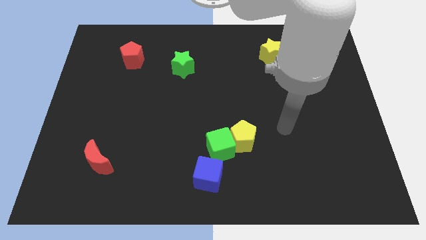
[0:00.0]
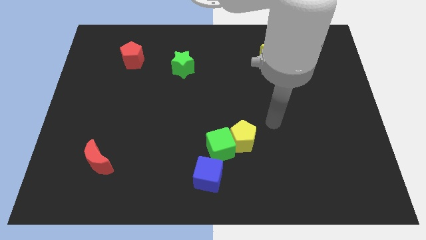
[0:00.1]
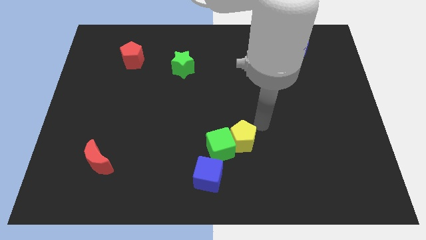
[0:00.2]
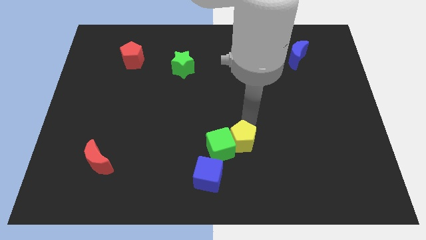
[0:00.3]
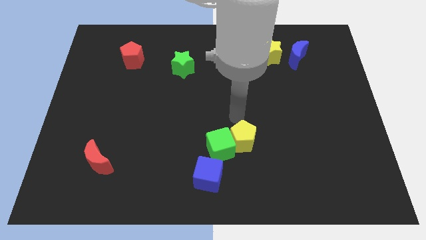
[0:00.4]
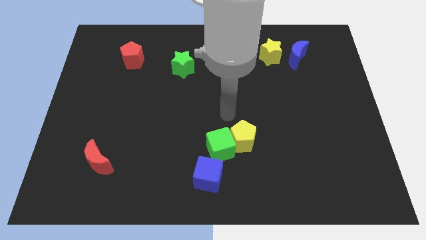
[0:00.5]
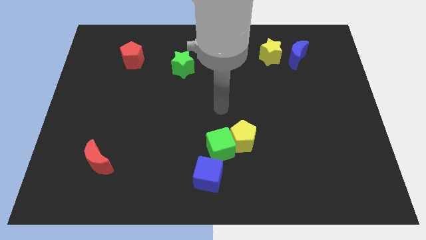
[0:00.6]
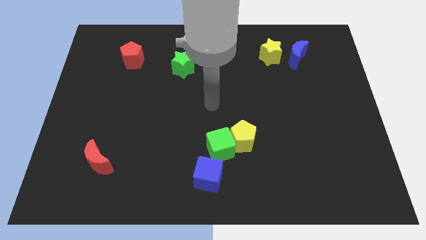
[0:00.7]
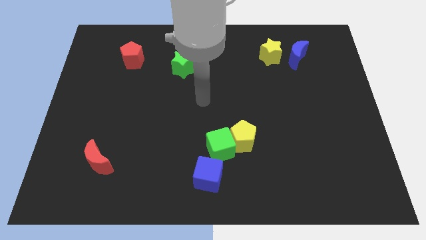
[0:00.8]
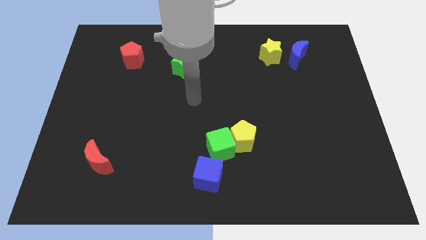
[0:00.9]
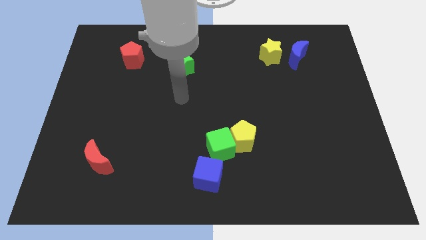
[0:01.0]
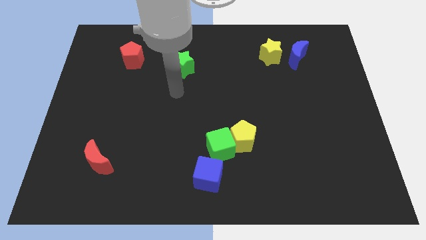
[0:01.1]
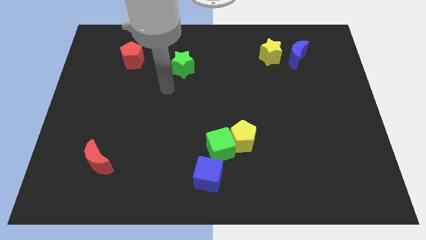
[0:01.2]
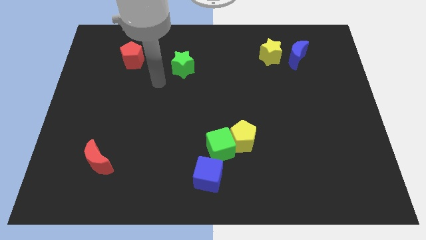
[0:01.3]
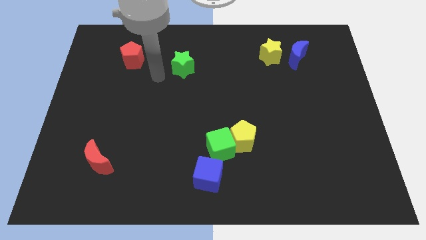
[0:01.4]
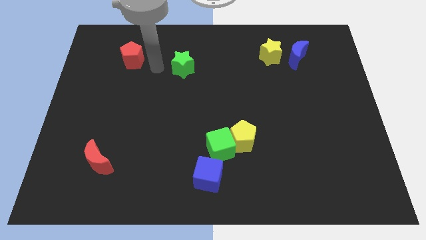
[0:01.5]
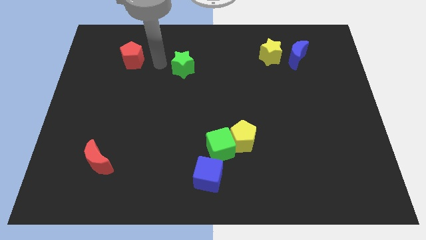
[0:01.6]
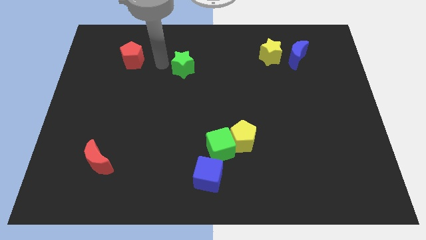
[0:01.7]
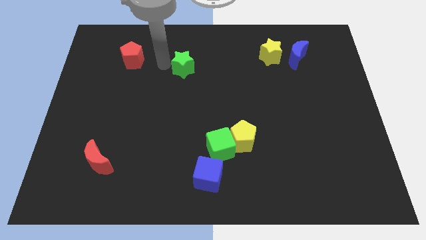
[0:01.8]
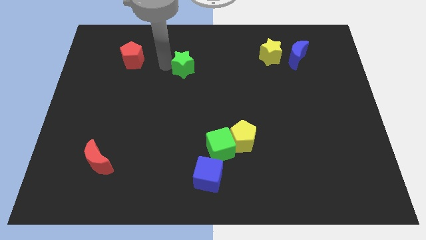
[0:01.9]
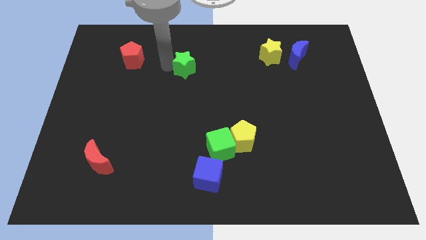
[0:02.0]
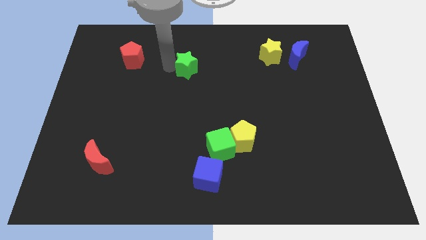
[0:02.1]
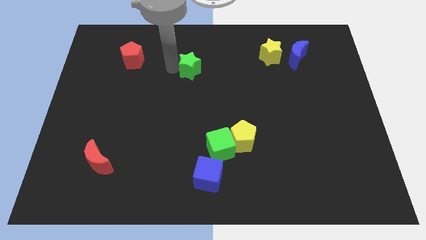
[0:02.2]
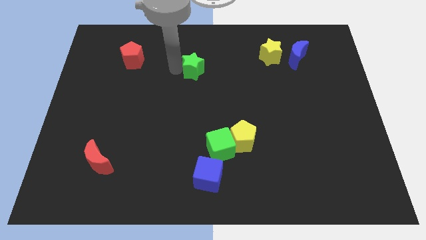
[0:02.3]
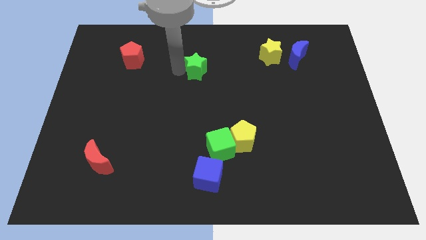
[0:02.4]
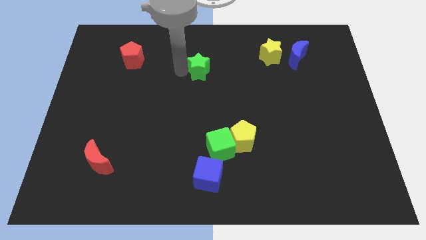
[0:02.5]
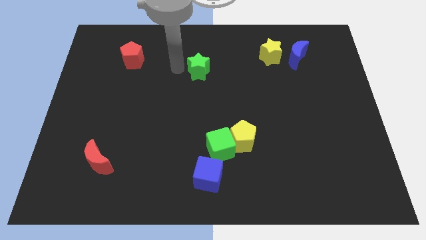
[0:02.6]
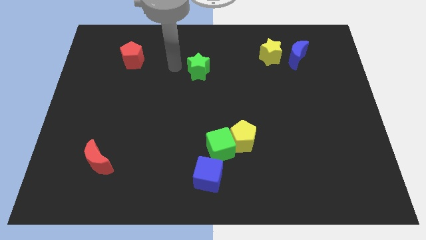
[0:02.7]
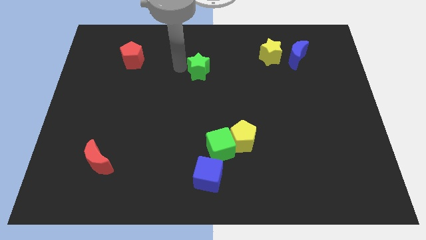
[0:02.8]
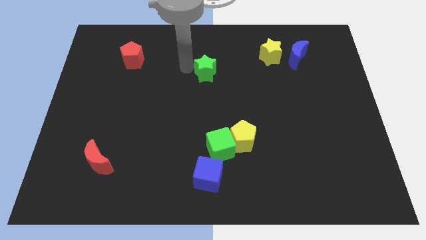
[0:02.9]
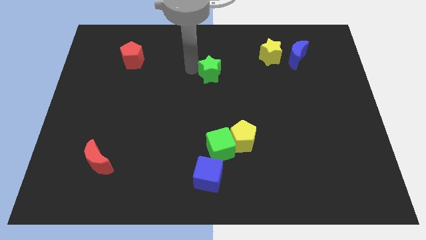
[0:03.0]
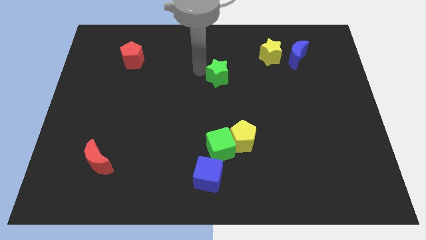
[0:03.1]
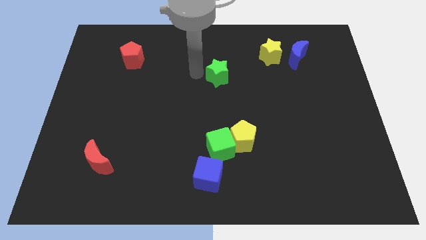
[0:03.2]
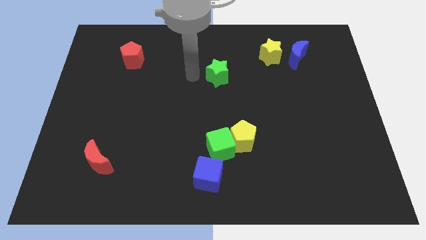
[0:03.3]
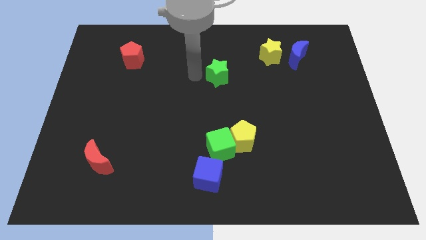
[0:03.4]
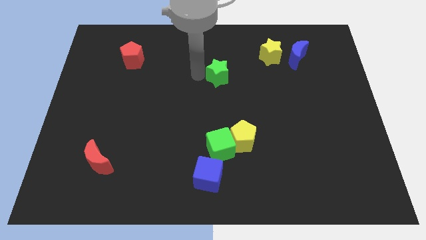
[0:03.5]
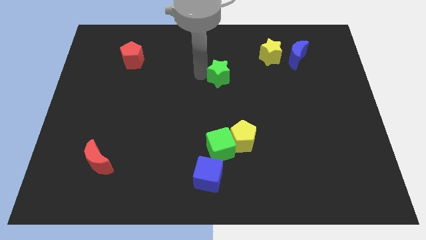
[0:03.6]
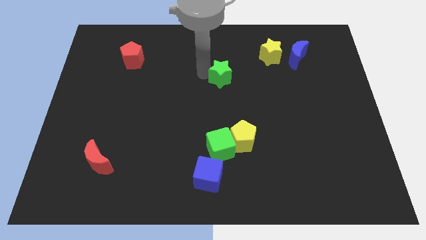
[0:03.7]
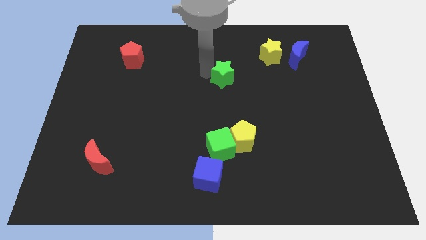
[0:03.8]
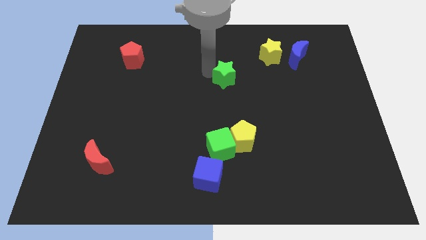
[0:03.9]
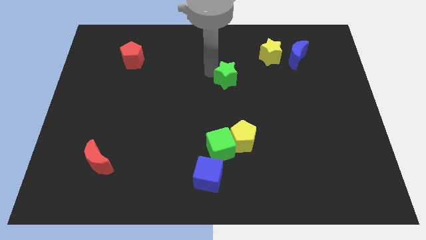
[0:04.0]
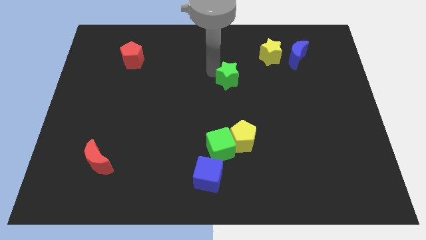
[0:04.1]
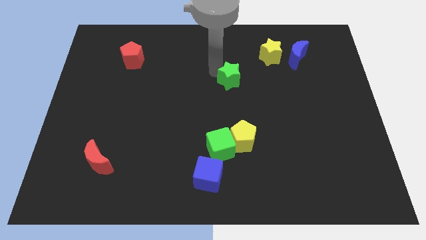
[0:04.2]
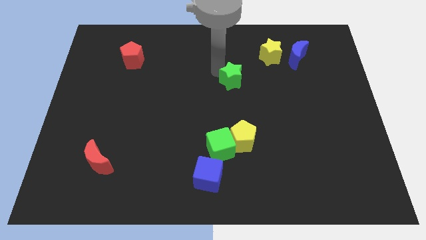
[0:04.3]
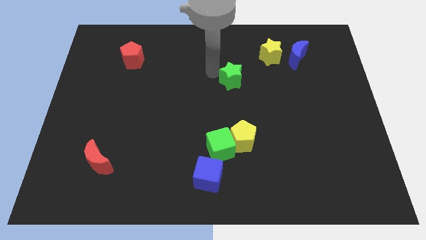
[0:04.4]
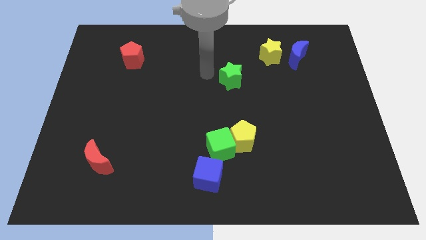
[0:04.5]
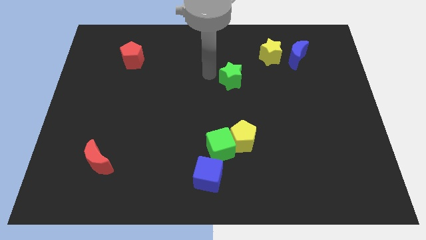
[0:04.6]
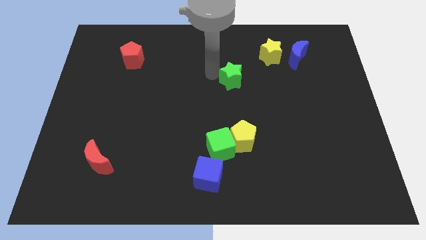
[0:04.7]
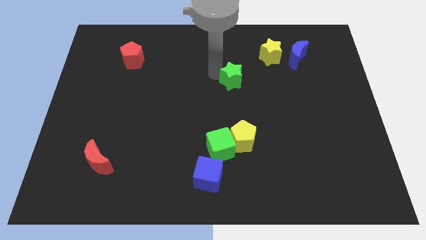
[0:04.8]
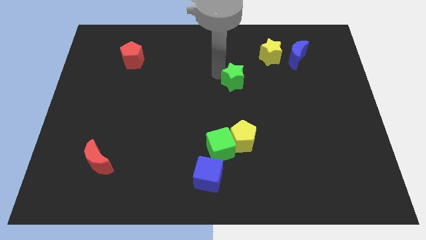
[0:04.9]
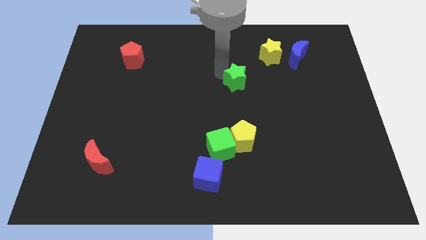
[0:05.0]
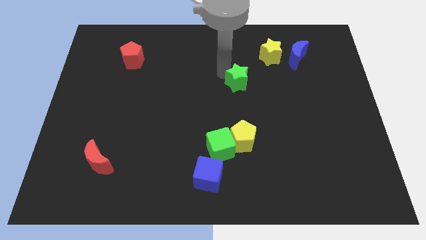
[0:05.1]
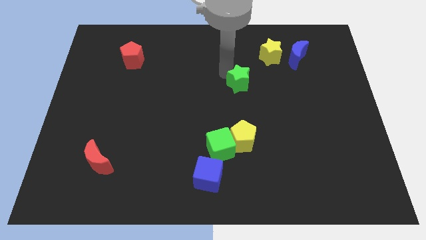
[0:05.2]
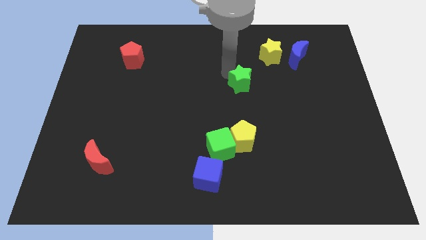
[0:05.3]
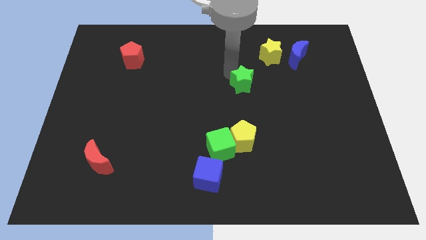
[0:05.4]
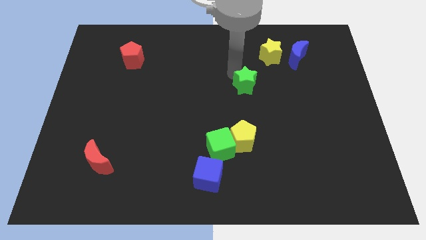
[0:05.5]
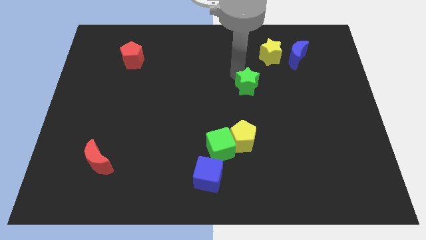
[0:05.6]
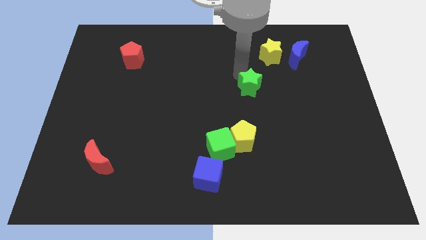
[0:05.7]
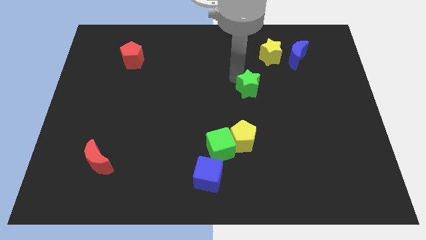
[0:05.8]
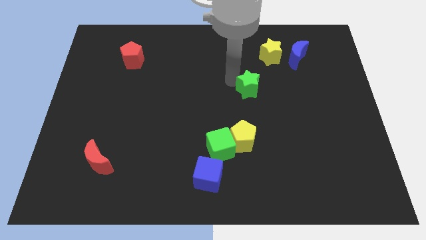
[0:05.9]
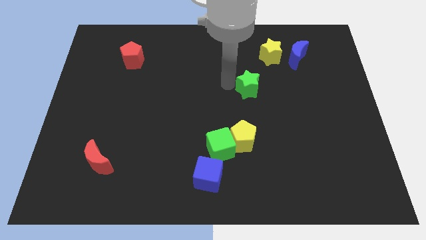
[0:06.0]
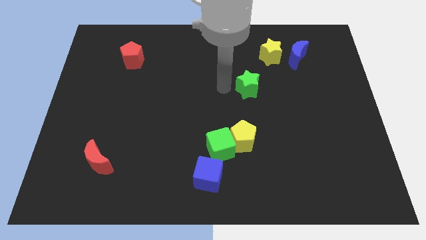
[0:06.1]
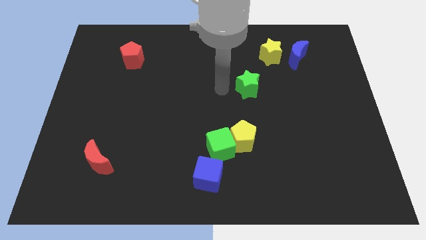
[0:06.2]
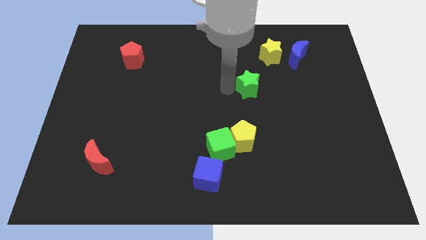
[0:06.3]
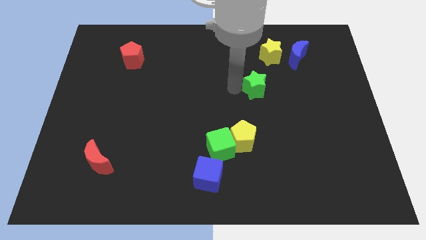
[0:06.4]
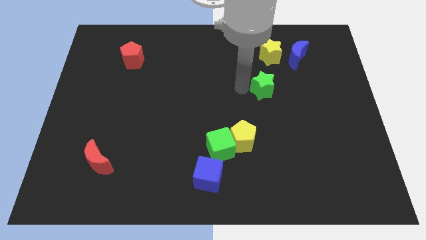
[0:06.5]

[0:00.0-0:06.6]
push the green star to the bottom of the yellow star

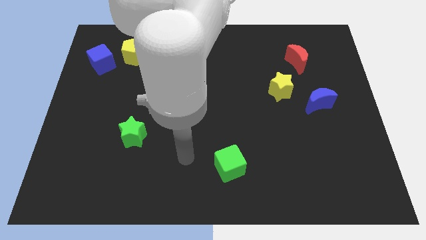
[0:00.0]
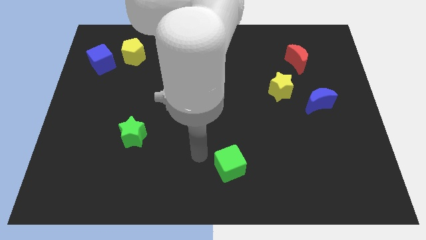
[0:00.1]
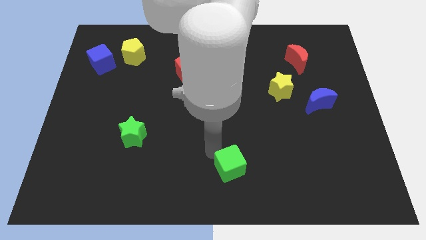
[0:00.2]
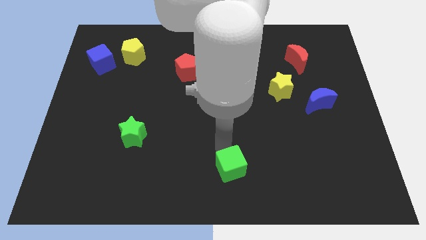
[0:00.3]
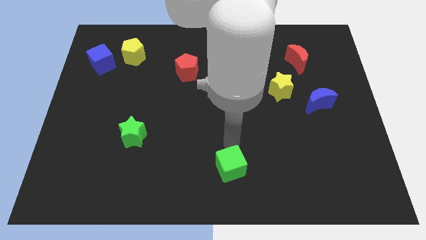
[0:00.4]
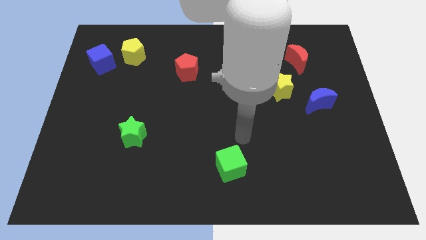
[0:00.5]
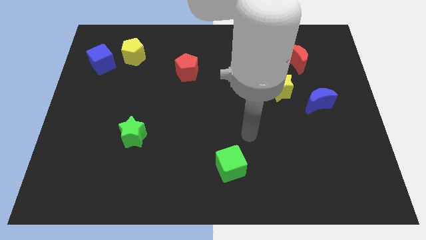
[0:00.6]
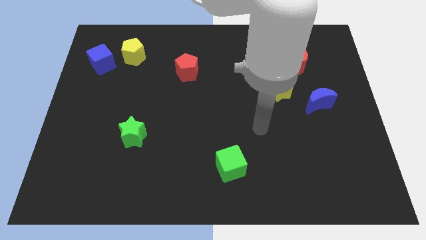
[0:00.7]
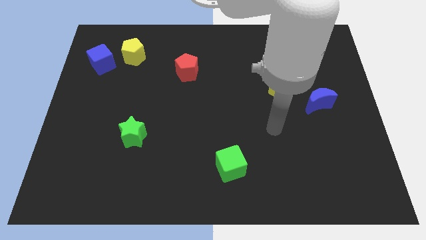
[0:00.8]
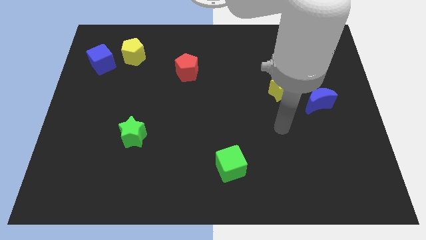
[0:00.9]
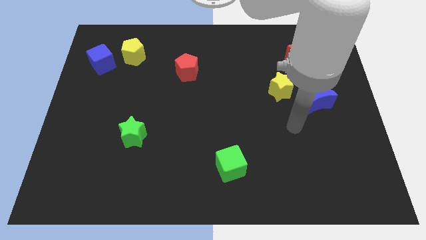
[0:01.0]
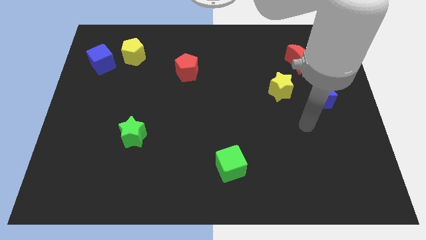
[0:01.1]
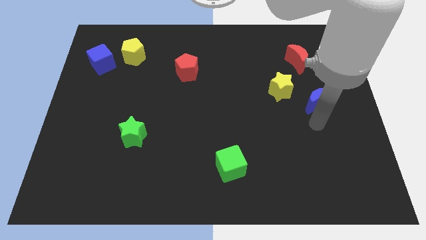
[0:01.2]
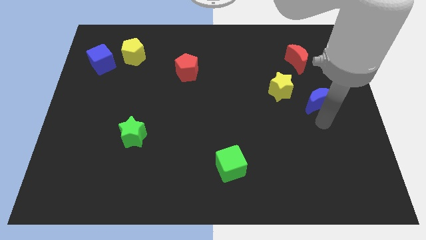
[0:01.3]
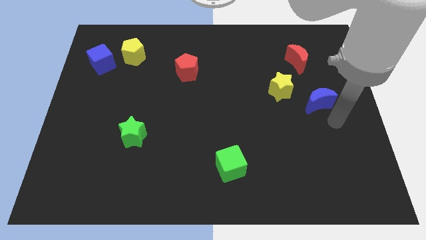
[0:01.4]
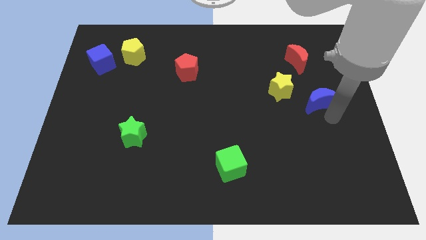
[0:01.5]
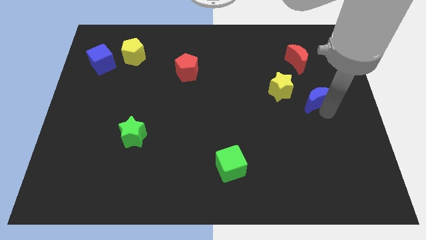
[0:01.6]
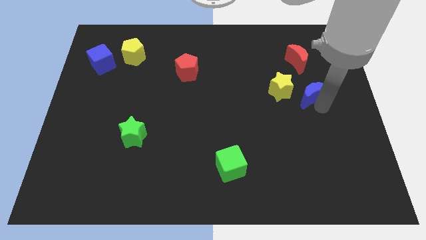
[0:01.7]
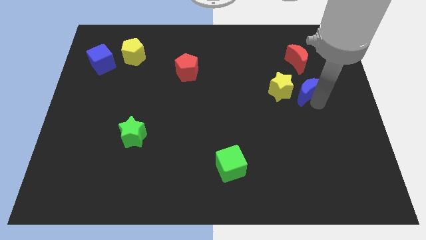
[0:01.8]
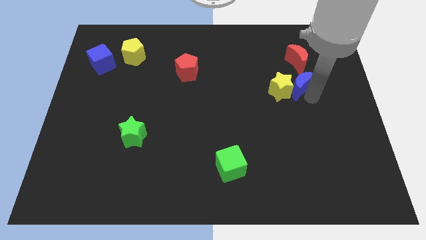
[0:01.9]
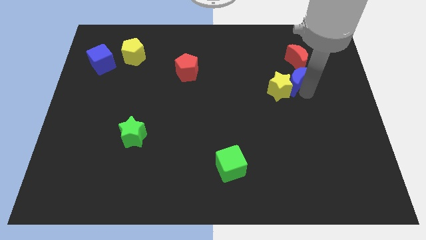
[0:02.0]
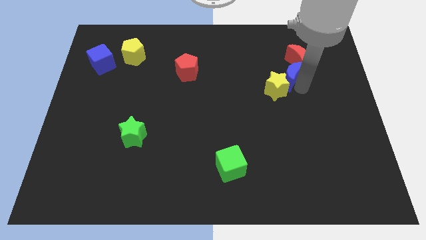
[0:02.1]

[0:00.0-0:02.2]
move the blue moon above the yellow star
